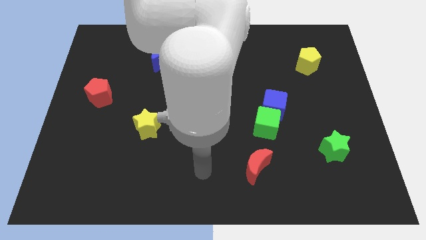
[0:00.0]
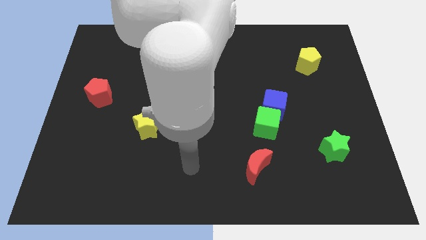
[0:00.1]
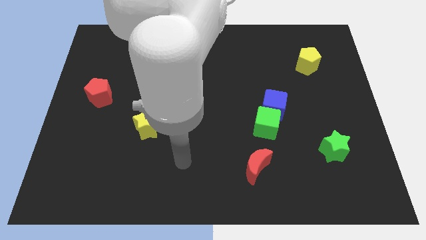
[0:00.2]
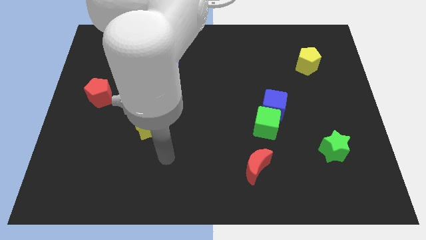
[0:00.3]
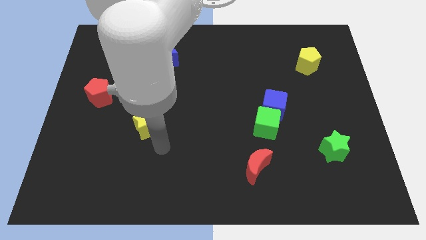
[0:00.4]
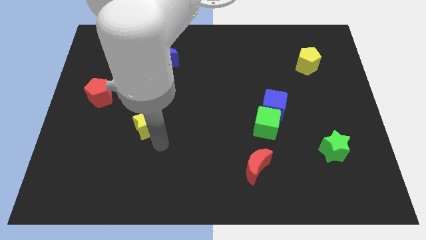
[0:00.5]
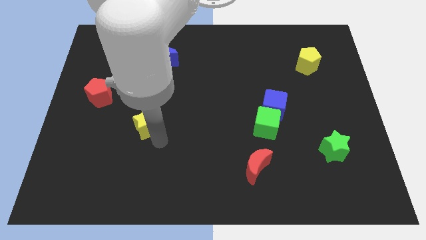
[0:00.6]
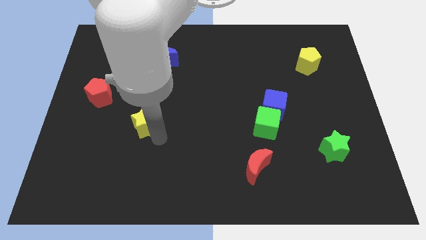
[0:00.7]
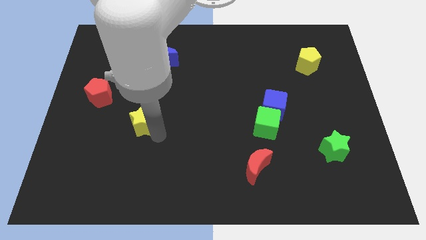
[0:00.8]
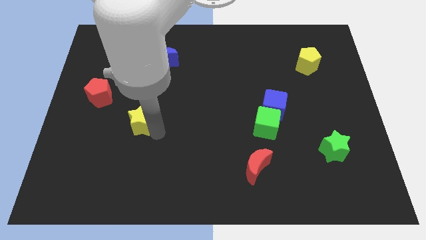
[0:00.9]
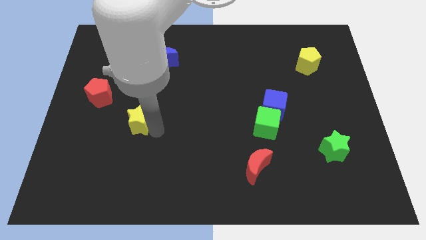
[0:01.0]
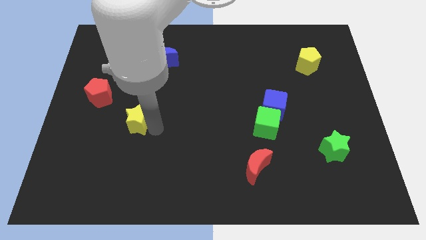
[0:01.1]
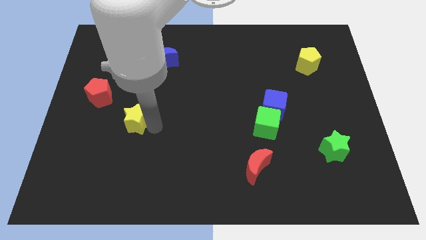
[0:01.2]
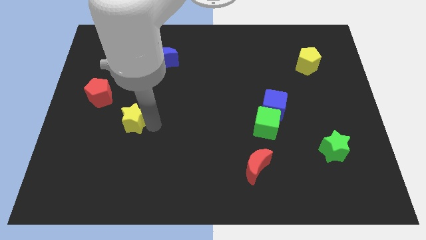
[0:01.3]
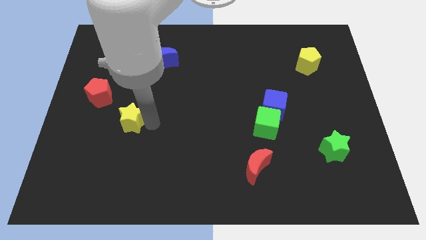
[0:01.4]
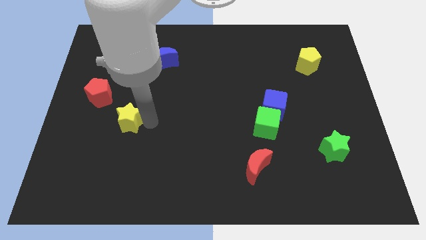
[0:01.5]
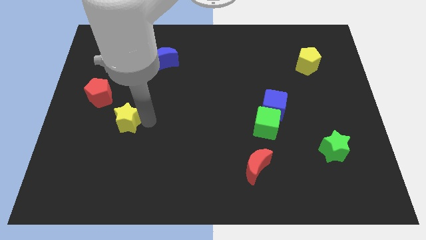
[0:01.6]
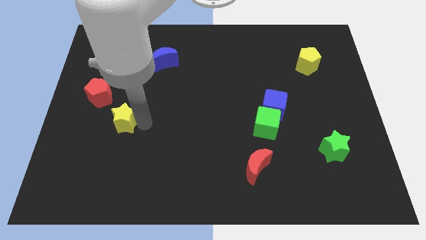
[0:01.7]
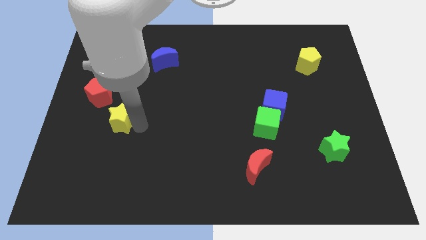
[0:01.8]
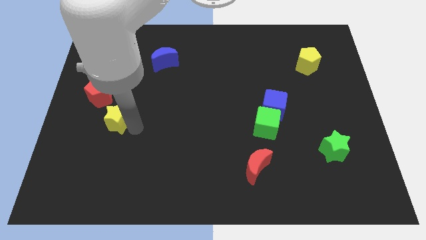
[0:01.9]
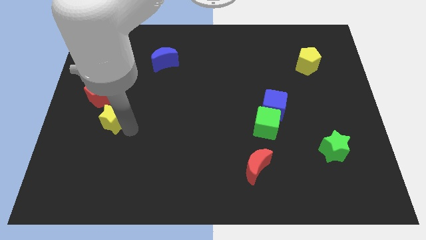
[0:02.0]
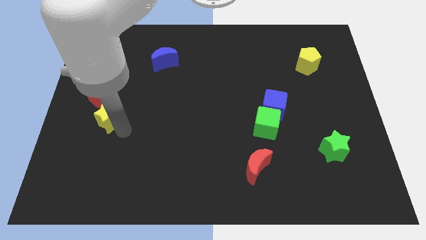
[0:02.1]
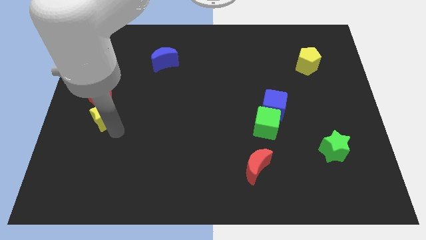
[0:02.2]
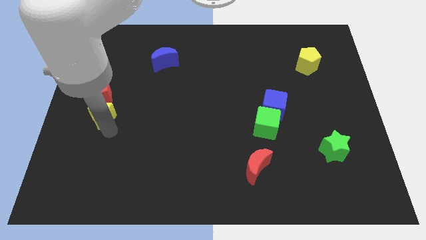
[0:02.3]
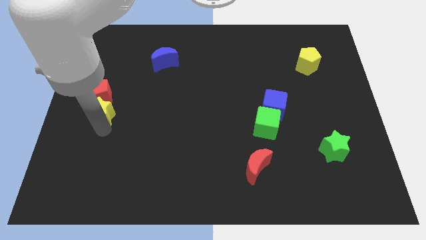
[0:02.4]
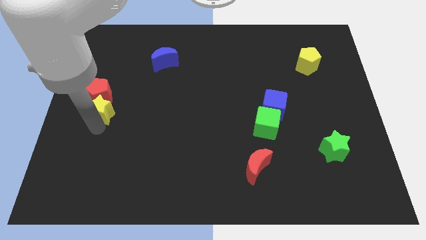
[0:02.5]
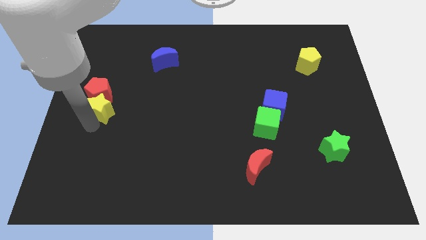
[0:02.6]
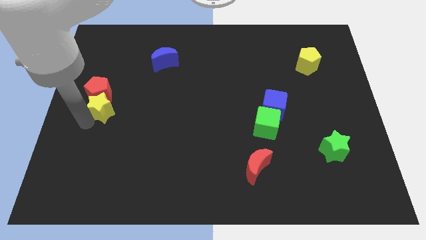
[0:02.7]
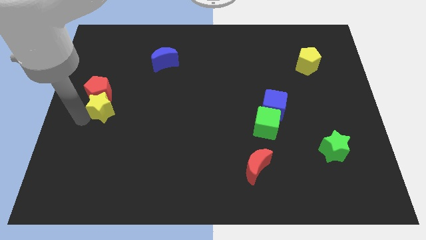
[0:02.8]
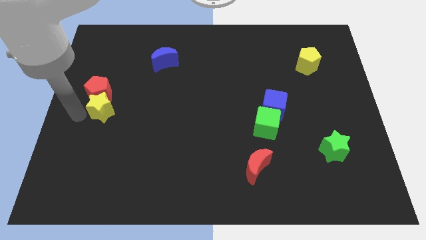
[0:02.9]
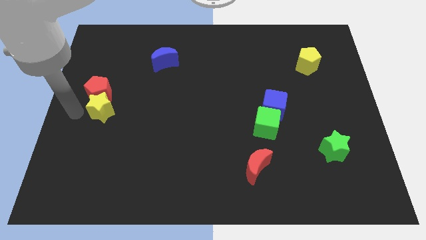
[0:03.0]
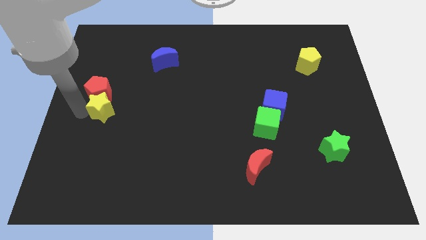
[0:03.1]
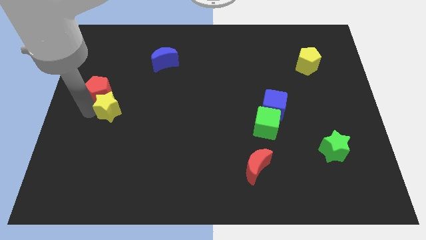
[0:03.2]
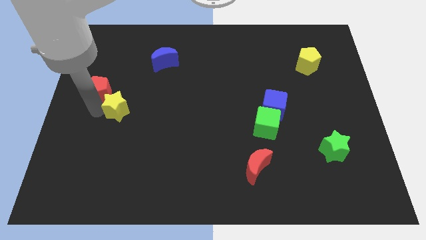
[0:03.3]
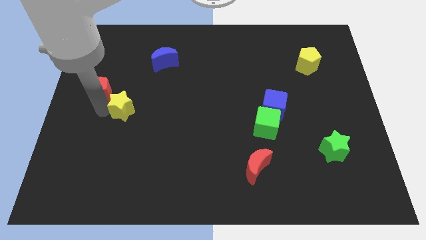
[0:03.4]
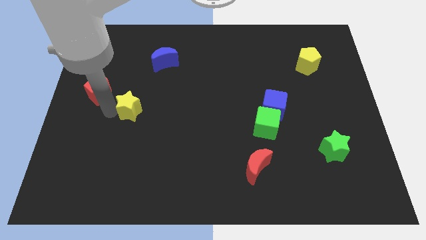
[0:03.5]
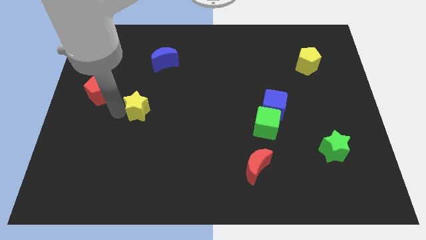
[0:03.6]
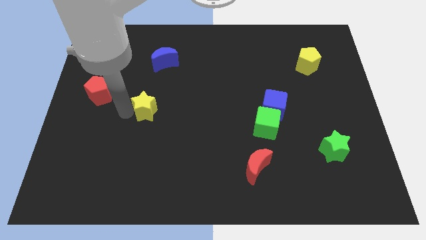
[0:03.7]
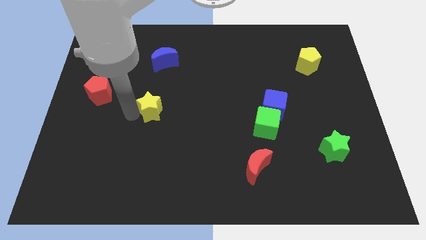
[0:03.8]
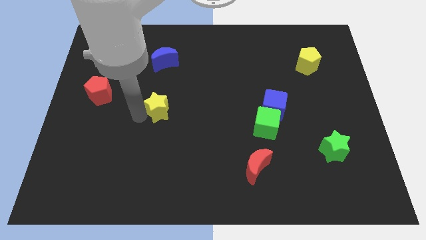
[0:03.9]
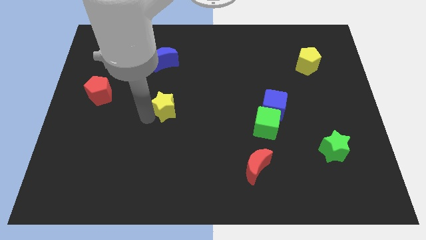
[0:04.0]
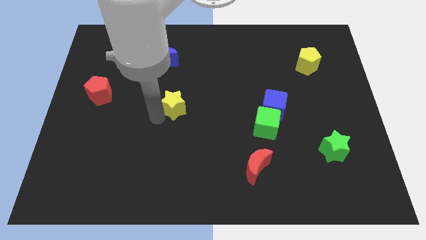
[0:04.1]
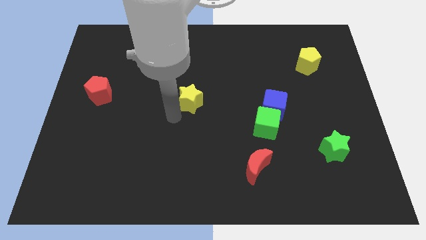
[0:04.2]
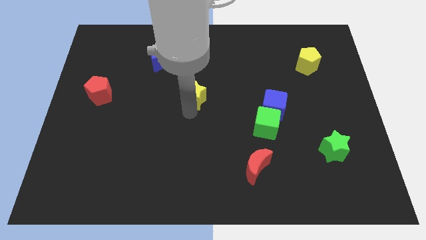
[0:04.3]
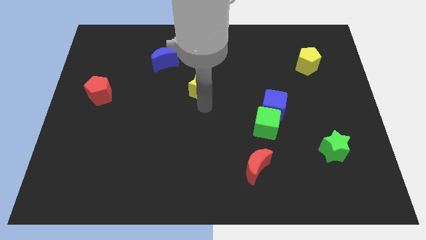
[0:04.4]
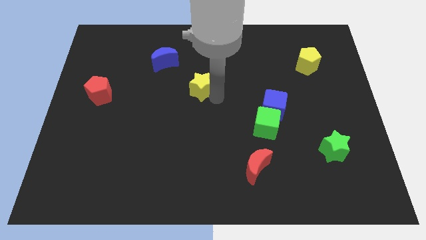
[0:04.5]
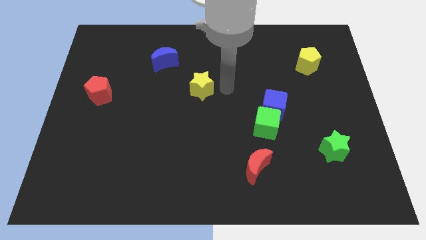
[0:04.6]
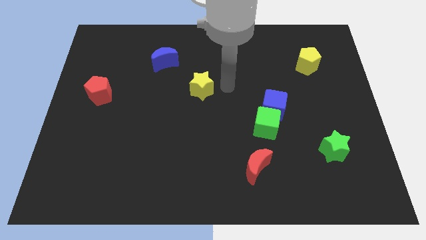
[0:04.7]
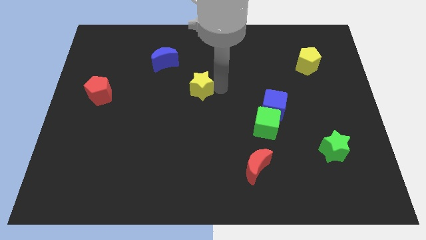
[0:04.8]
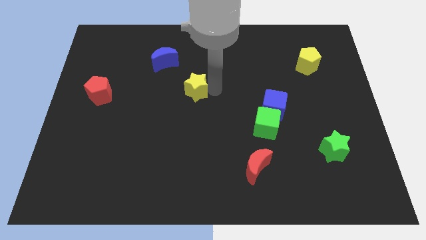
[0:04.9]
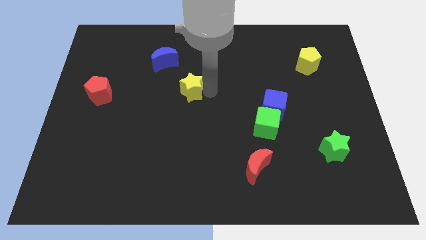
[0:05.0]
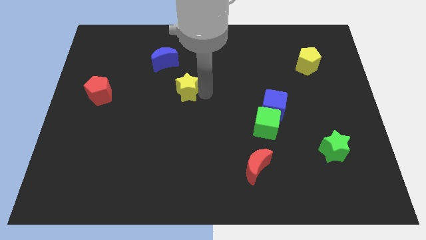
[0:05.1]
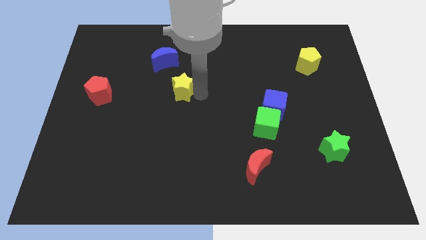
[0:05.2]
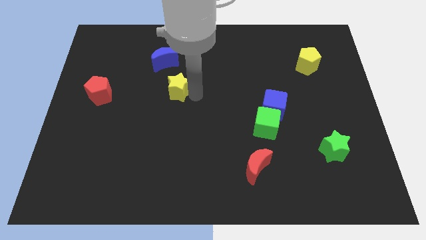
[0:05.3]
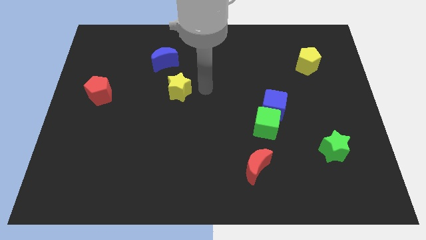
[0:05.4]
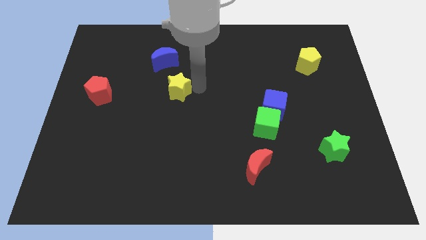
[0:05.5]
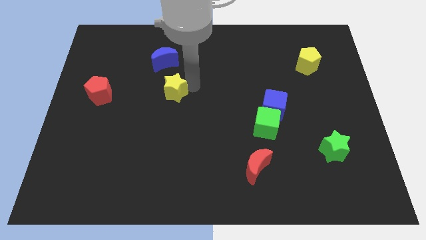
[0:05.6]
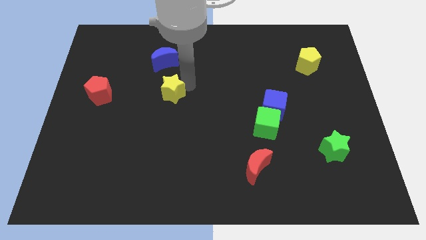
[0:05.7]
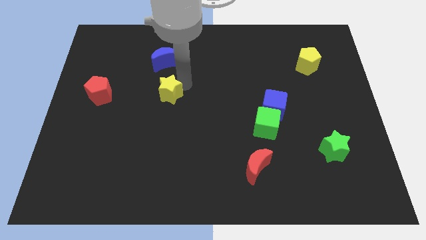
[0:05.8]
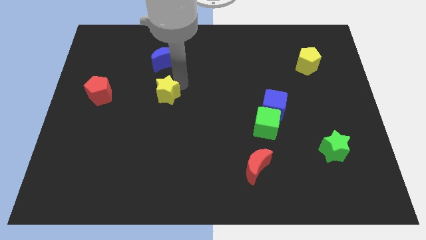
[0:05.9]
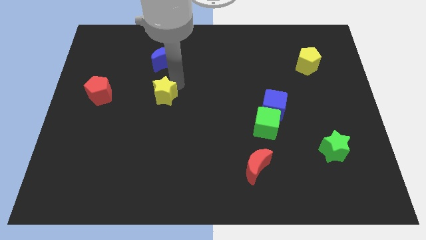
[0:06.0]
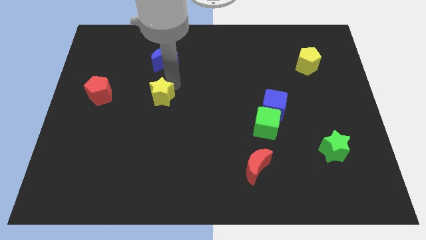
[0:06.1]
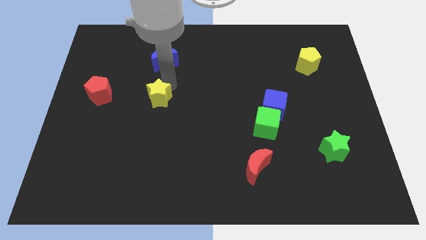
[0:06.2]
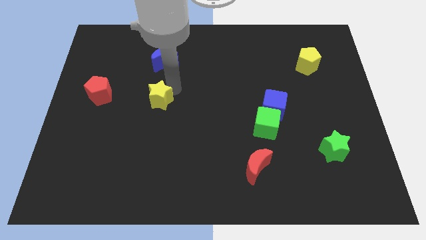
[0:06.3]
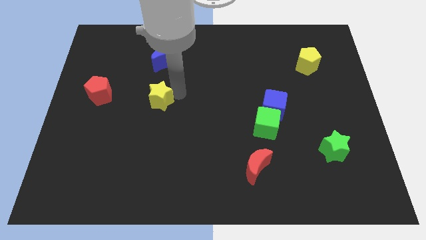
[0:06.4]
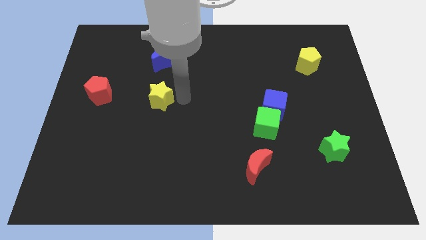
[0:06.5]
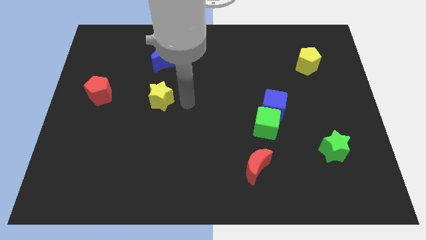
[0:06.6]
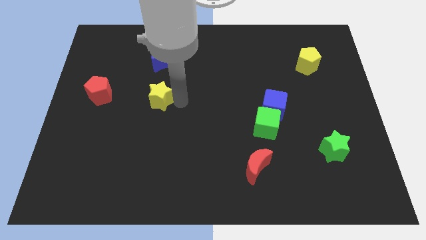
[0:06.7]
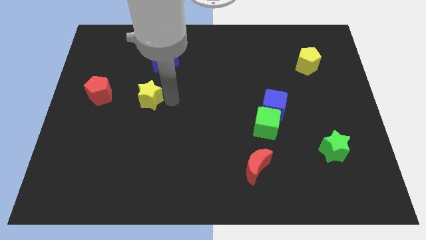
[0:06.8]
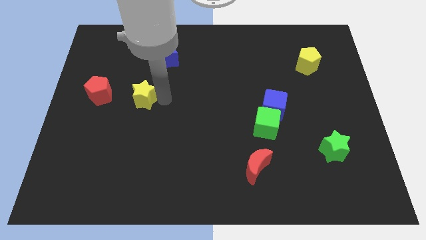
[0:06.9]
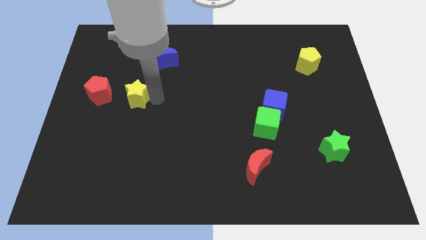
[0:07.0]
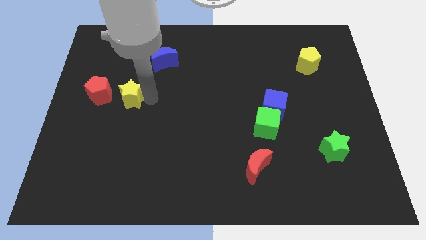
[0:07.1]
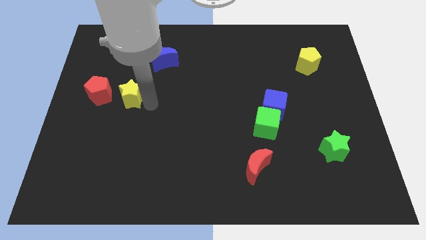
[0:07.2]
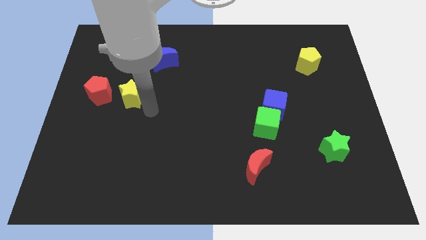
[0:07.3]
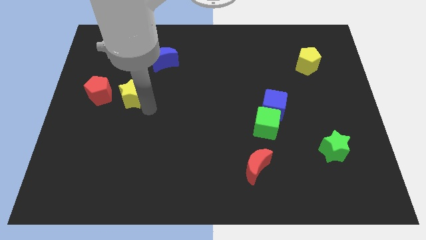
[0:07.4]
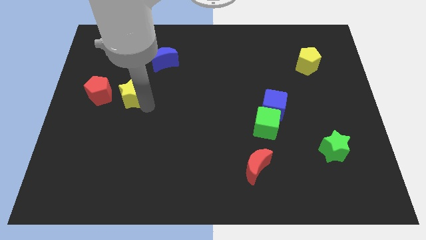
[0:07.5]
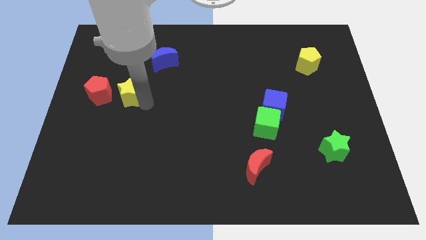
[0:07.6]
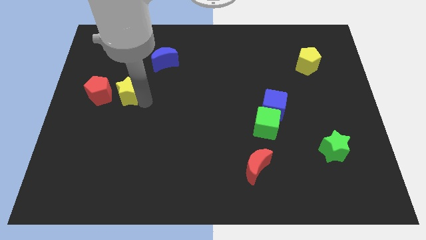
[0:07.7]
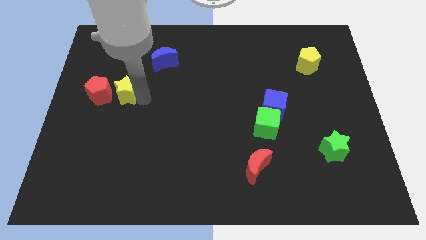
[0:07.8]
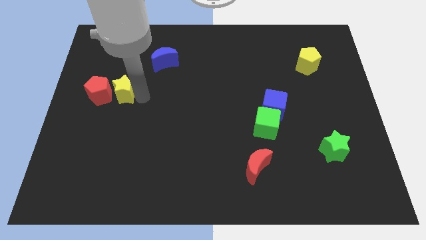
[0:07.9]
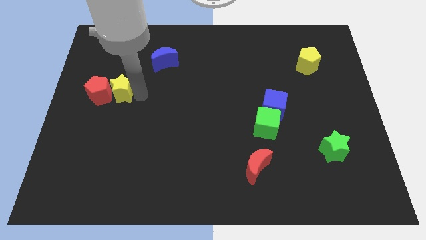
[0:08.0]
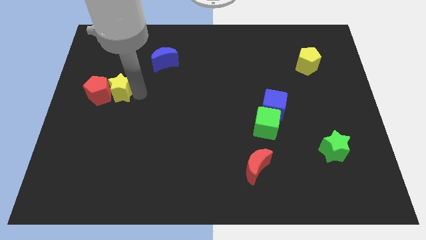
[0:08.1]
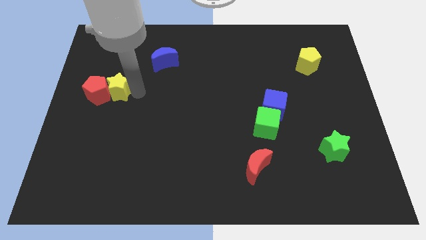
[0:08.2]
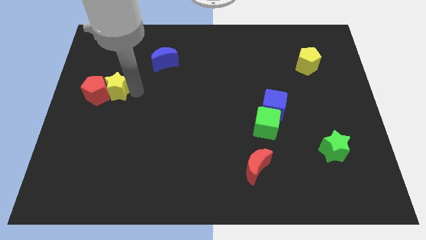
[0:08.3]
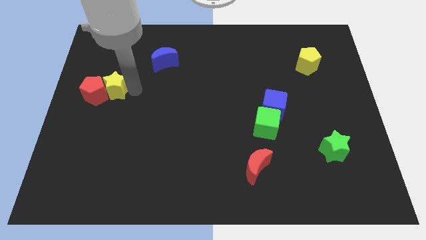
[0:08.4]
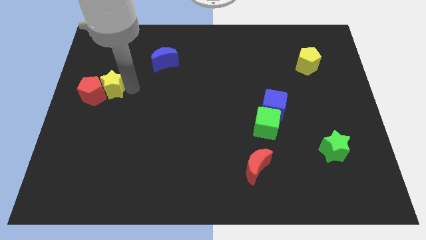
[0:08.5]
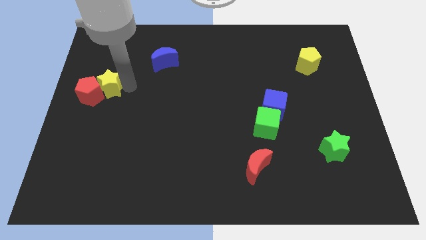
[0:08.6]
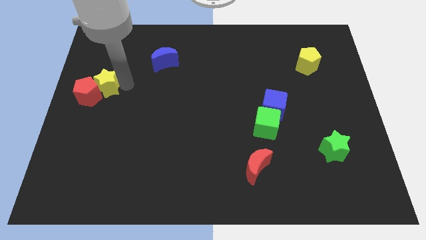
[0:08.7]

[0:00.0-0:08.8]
put the yellow star to the top side of the red pentagon
